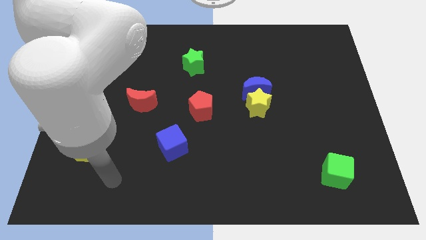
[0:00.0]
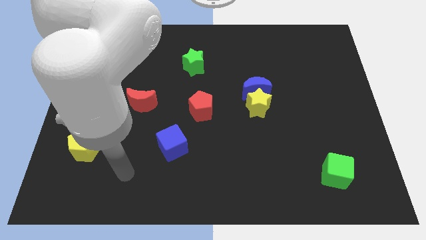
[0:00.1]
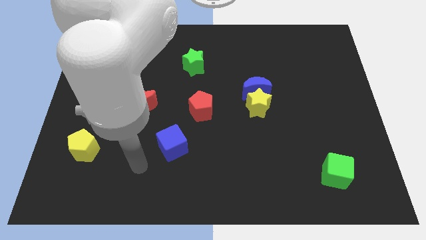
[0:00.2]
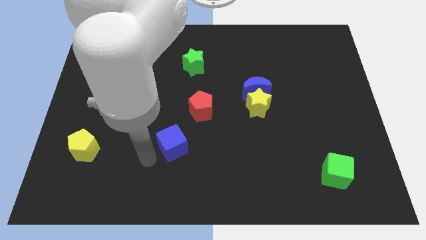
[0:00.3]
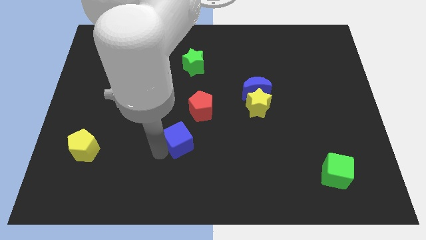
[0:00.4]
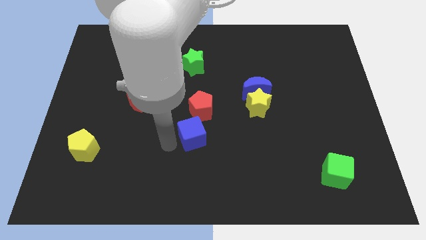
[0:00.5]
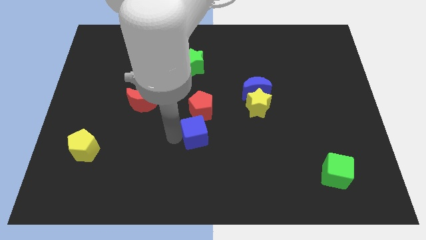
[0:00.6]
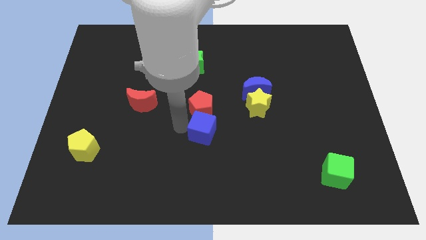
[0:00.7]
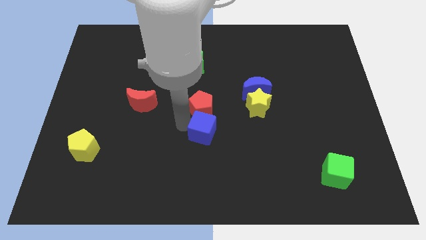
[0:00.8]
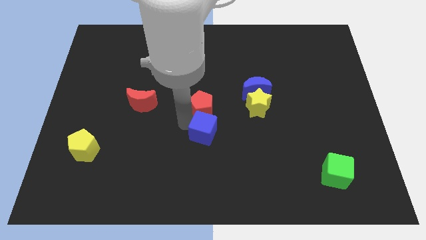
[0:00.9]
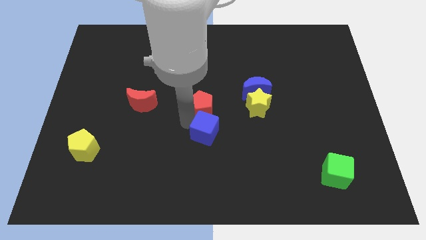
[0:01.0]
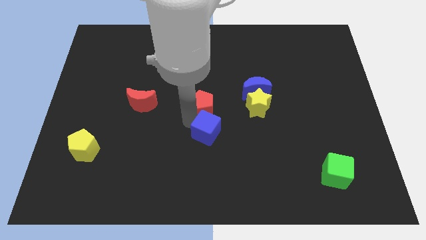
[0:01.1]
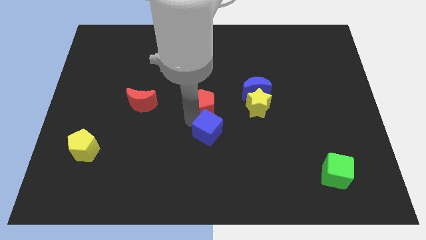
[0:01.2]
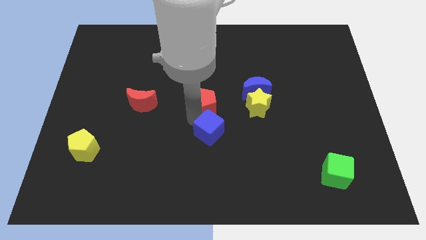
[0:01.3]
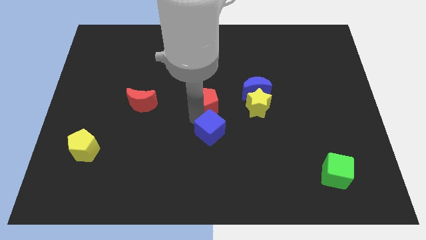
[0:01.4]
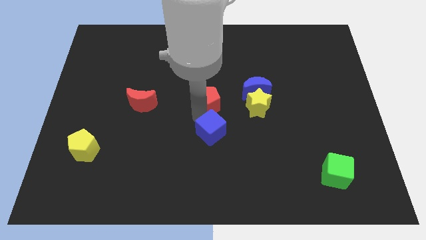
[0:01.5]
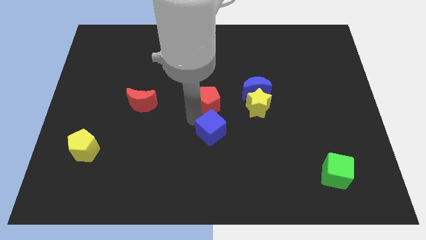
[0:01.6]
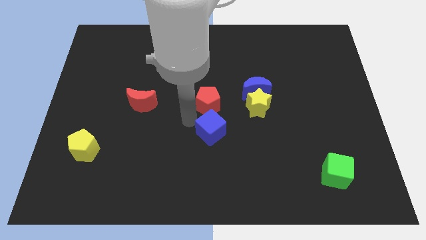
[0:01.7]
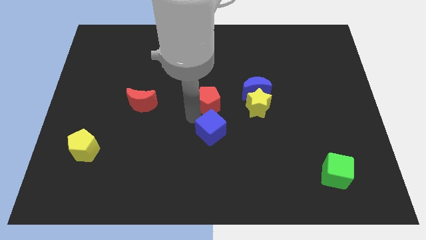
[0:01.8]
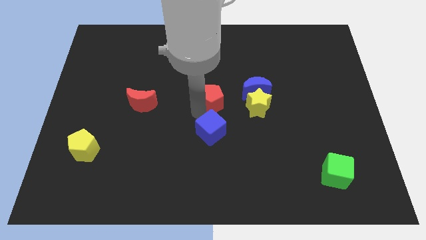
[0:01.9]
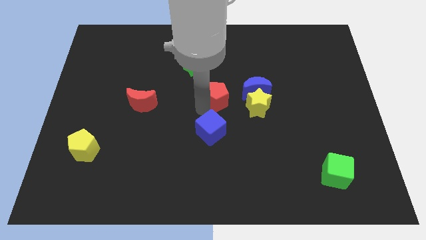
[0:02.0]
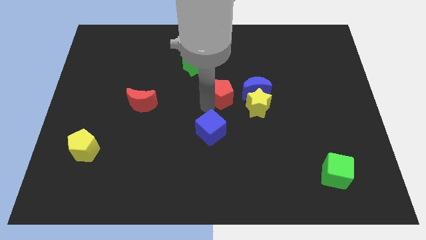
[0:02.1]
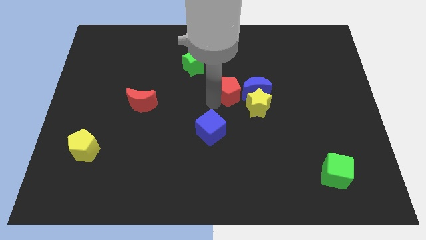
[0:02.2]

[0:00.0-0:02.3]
slide the red pentagon a little bit up and right diagonally

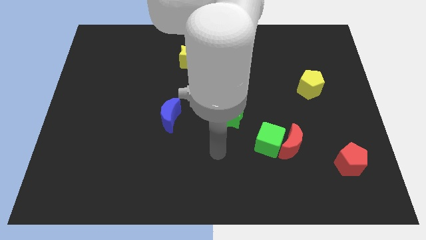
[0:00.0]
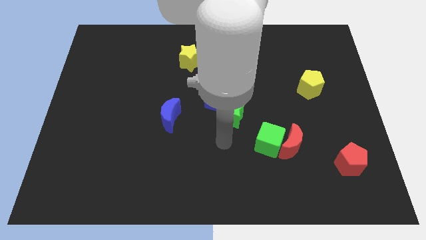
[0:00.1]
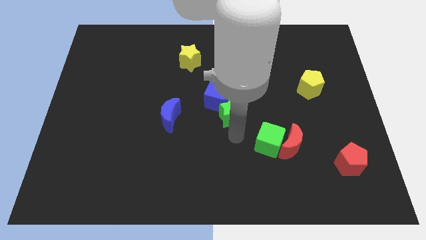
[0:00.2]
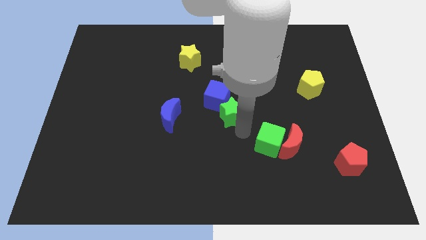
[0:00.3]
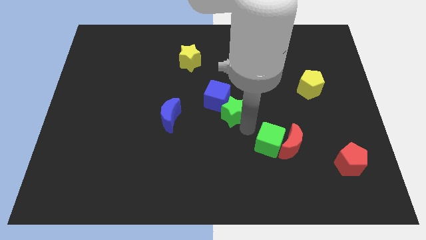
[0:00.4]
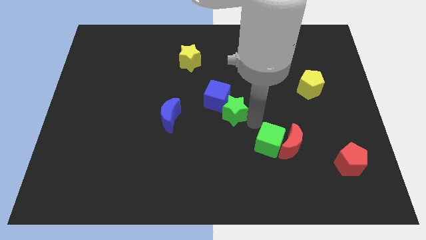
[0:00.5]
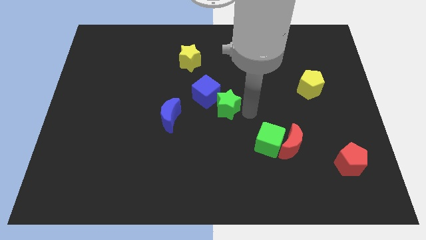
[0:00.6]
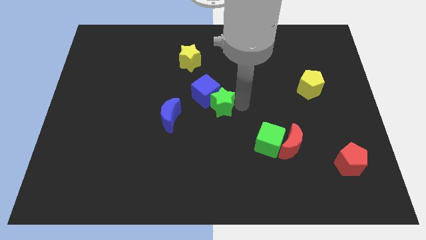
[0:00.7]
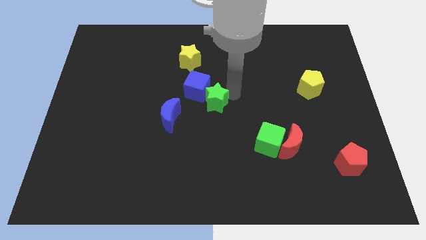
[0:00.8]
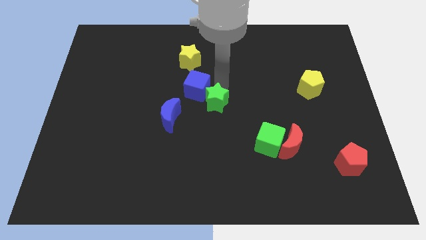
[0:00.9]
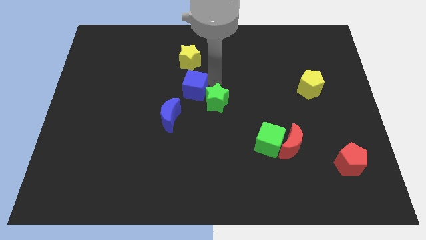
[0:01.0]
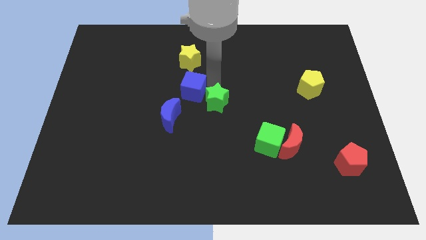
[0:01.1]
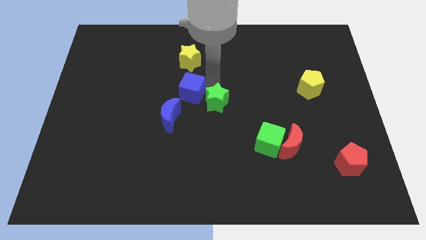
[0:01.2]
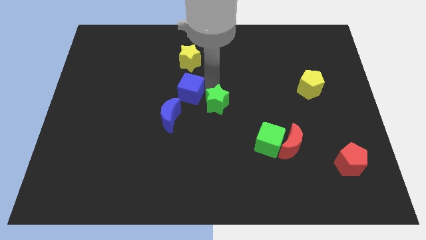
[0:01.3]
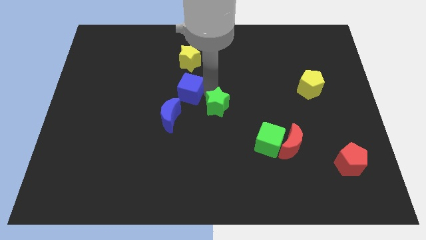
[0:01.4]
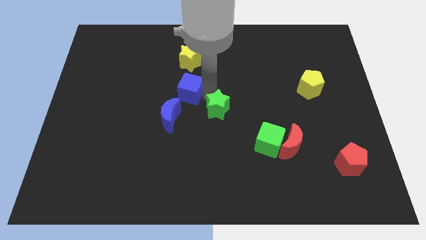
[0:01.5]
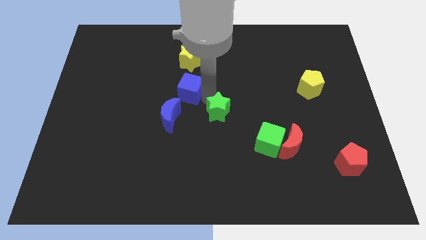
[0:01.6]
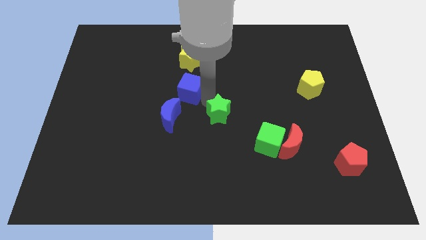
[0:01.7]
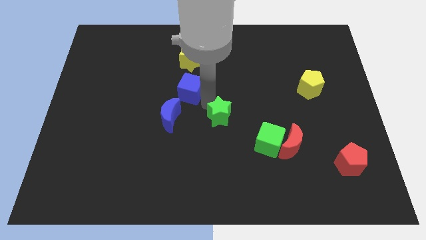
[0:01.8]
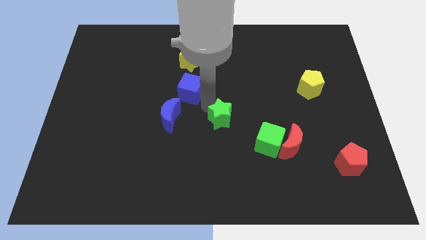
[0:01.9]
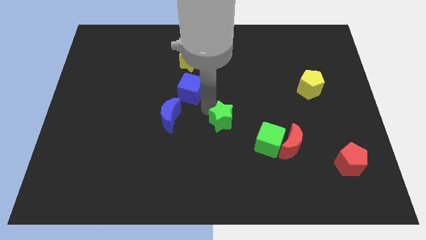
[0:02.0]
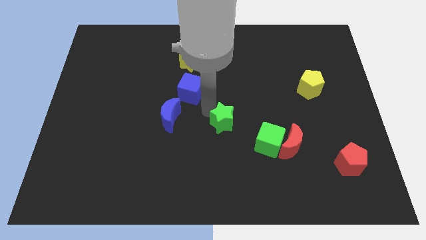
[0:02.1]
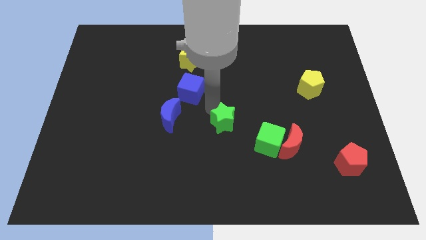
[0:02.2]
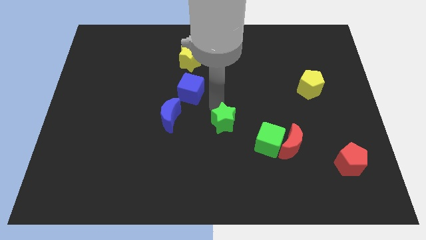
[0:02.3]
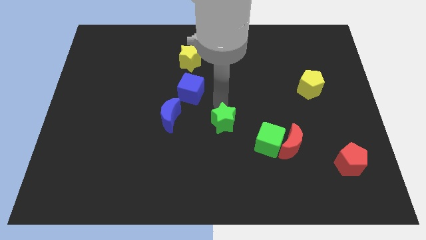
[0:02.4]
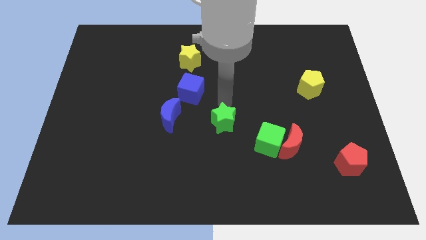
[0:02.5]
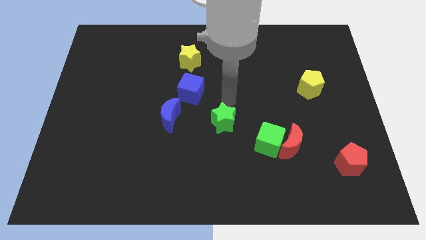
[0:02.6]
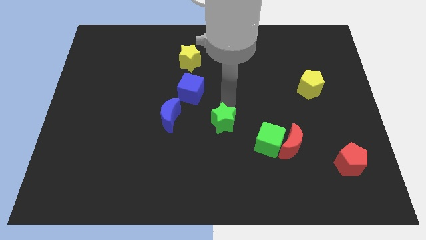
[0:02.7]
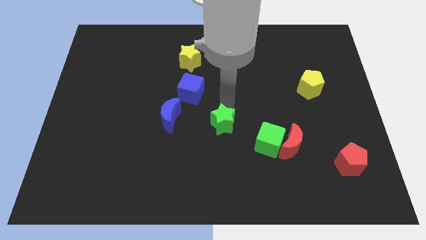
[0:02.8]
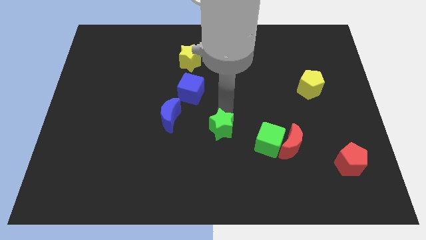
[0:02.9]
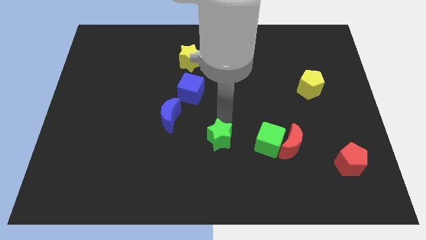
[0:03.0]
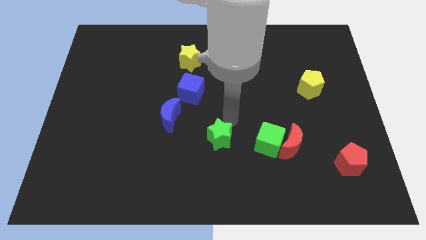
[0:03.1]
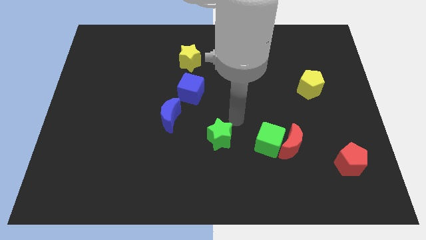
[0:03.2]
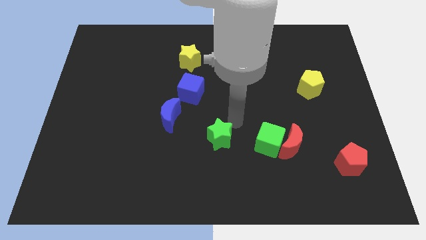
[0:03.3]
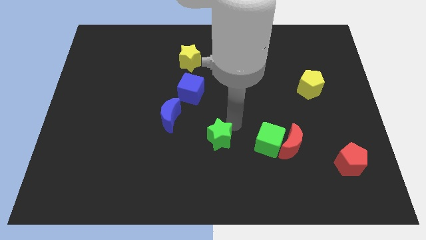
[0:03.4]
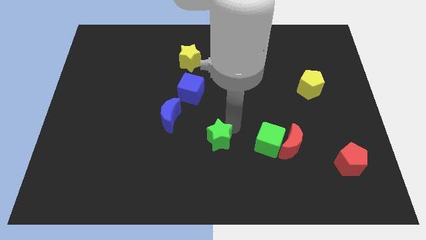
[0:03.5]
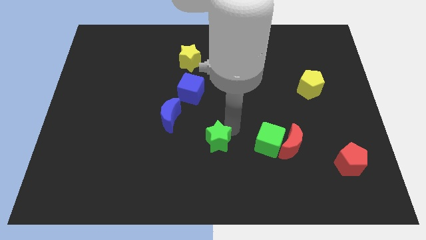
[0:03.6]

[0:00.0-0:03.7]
slightly move the green star downwards and left diagonally

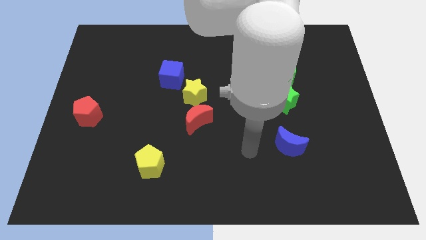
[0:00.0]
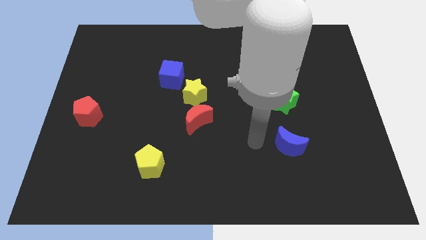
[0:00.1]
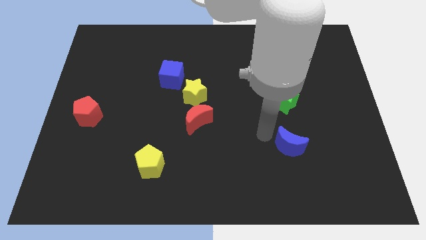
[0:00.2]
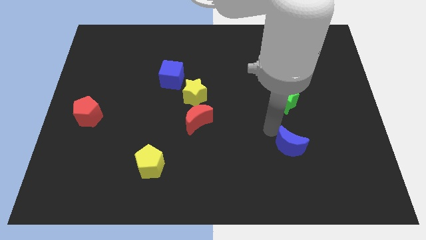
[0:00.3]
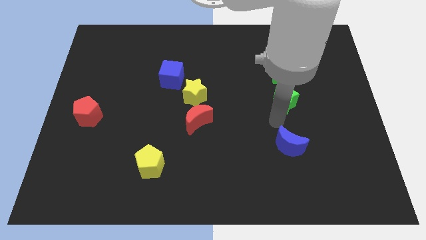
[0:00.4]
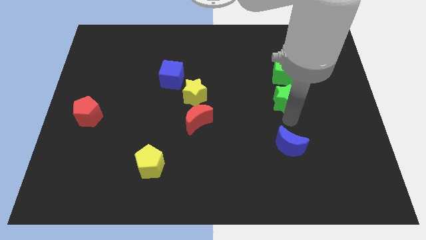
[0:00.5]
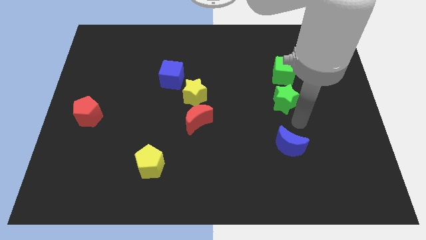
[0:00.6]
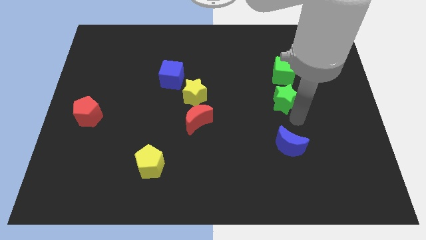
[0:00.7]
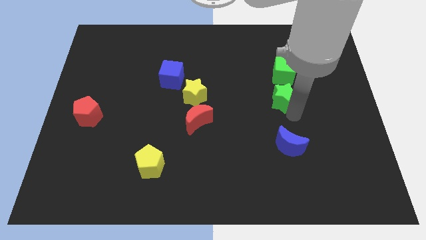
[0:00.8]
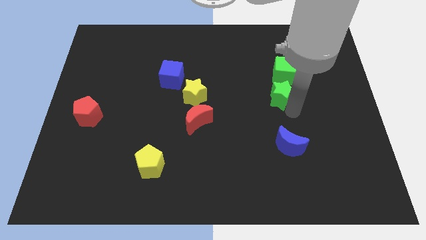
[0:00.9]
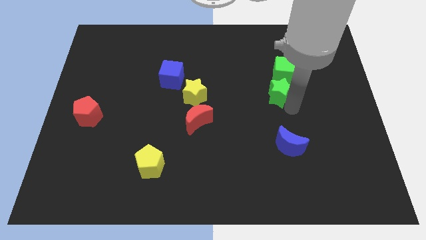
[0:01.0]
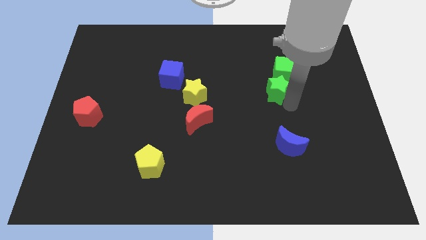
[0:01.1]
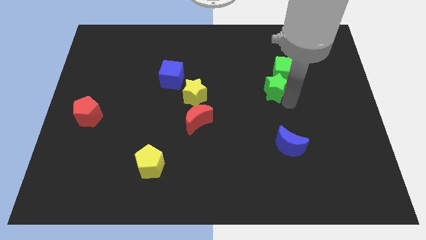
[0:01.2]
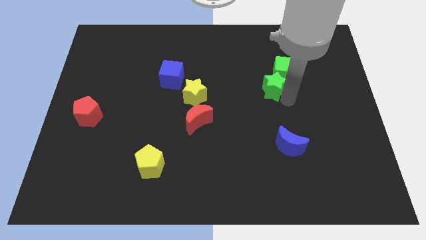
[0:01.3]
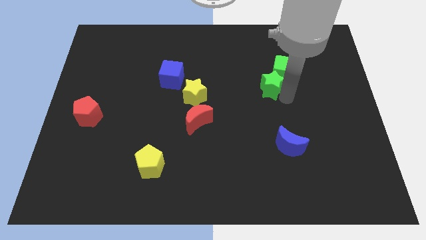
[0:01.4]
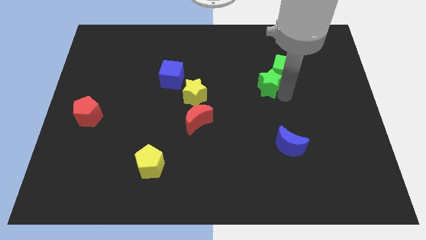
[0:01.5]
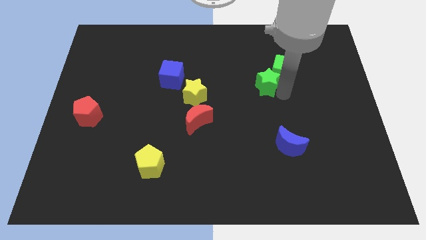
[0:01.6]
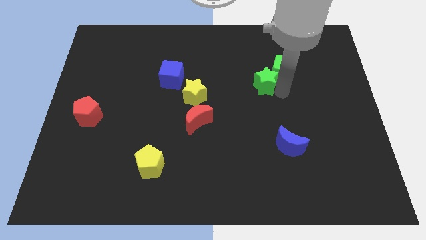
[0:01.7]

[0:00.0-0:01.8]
slightly slide the green star upwards and then to the left

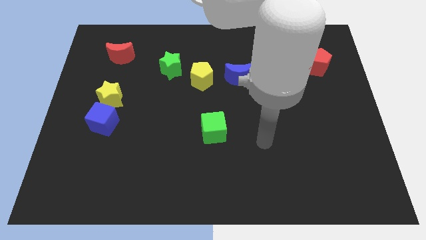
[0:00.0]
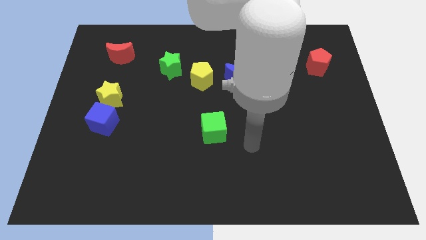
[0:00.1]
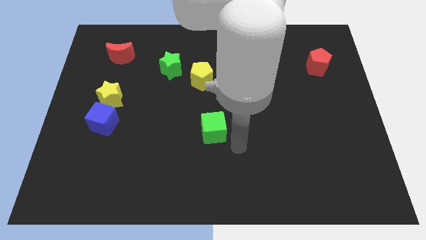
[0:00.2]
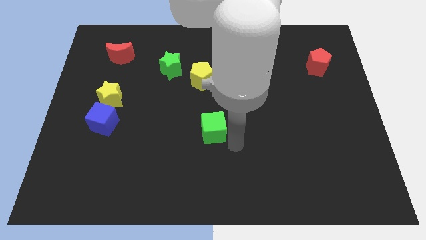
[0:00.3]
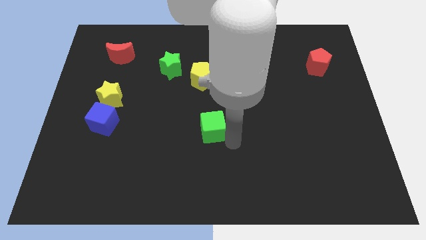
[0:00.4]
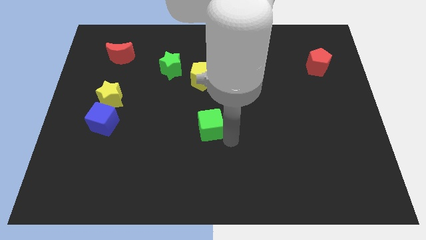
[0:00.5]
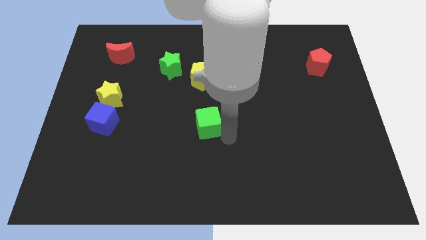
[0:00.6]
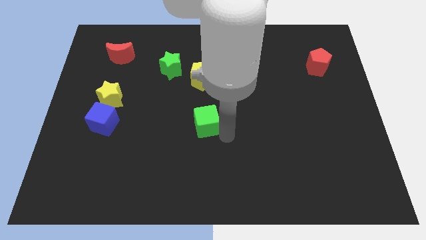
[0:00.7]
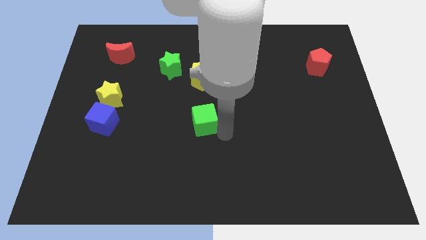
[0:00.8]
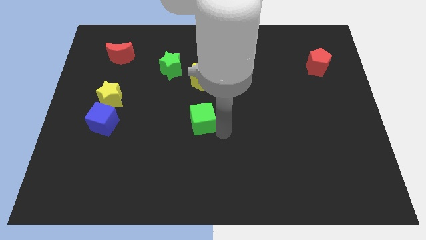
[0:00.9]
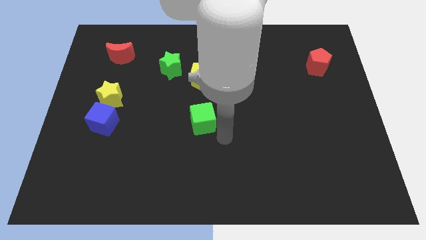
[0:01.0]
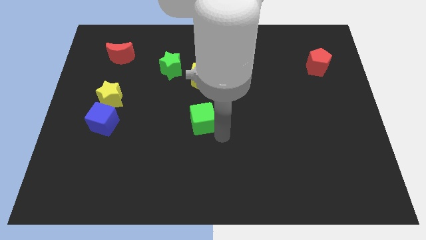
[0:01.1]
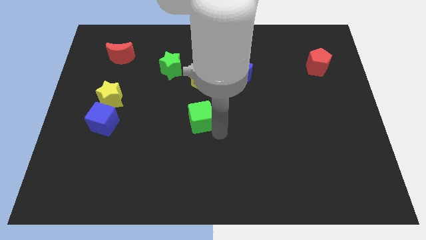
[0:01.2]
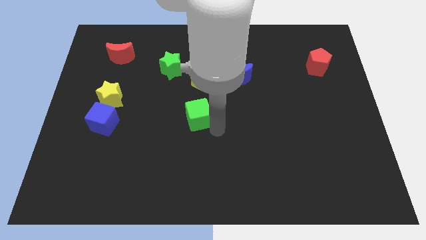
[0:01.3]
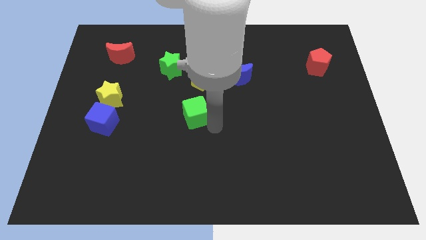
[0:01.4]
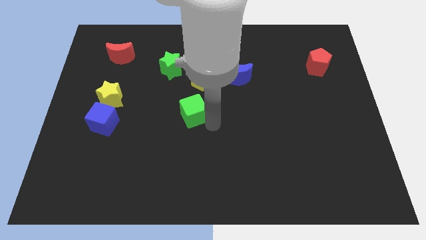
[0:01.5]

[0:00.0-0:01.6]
slide the green cube a little bit diagonally upwards and left
